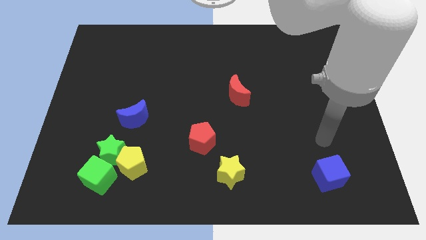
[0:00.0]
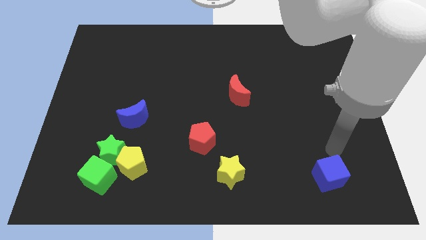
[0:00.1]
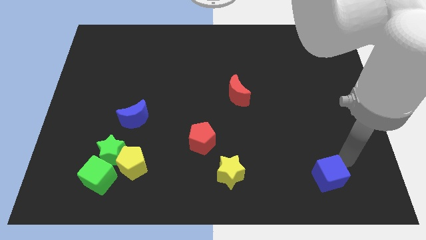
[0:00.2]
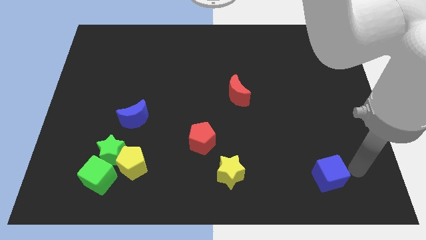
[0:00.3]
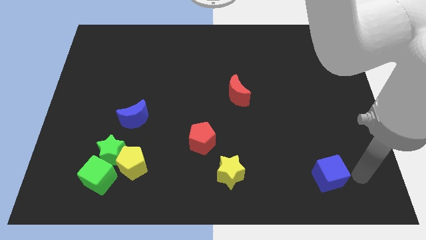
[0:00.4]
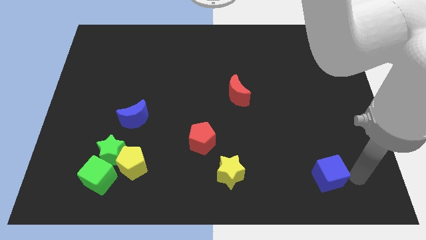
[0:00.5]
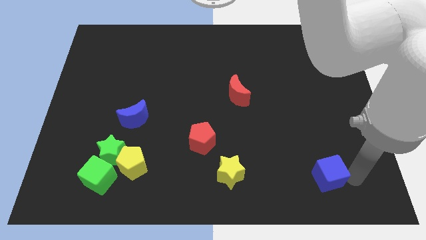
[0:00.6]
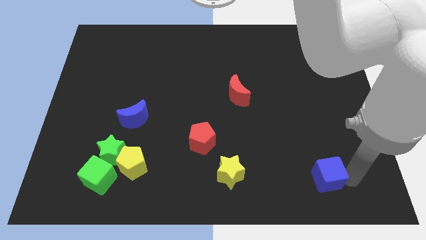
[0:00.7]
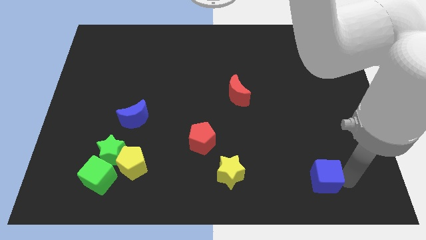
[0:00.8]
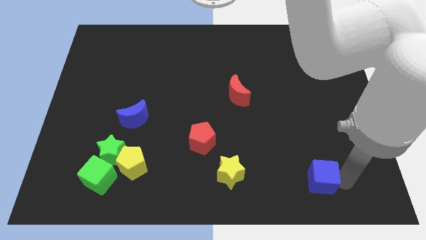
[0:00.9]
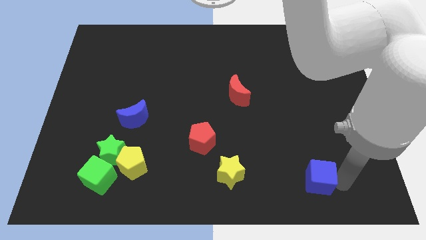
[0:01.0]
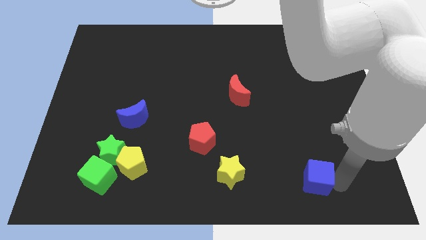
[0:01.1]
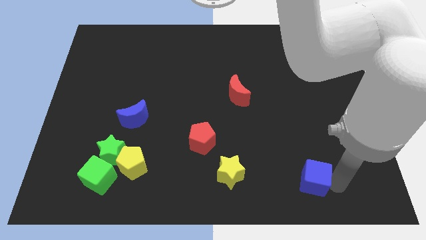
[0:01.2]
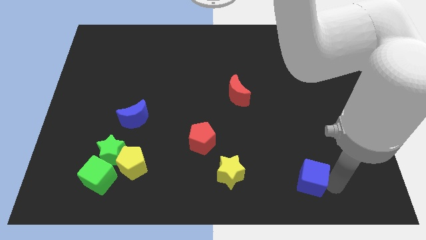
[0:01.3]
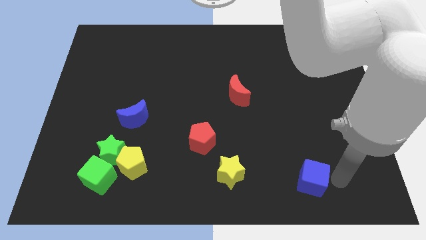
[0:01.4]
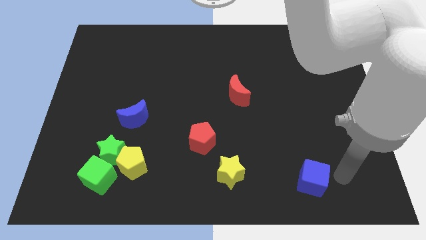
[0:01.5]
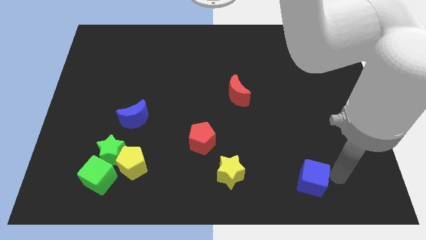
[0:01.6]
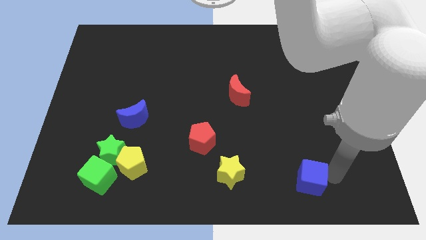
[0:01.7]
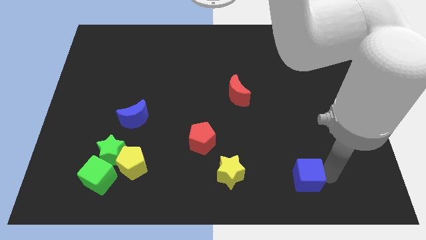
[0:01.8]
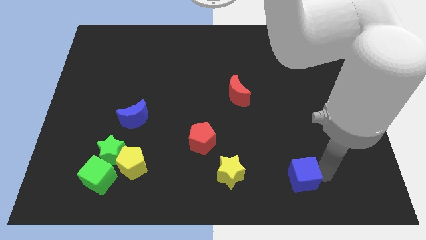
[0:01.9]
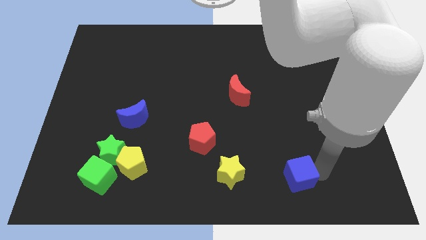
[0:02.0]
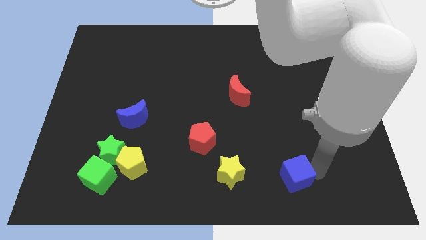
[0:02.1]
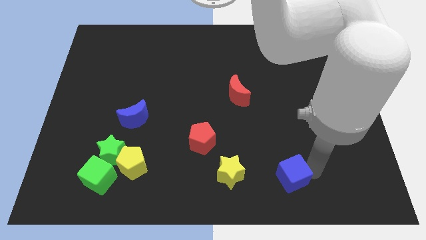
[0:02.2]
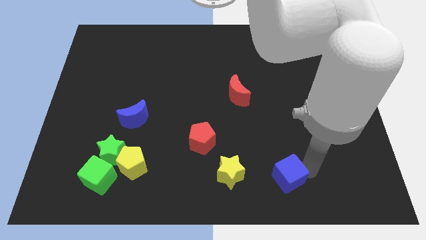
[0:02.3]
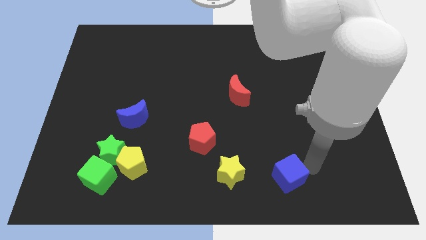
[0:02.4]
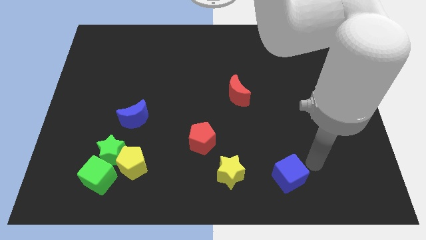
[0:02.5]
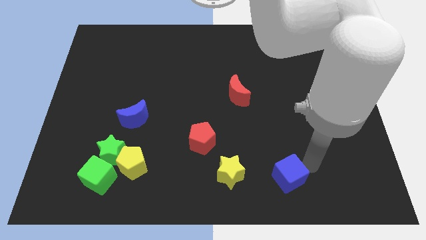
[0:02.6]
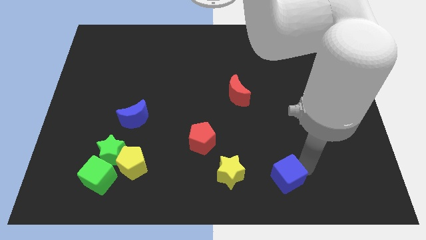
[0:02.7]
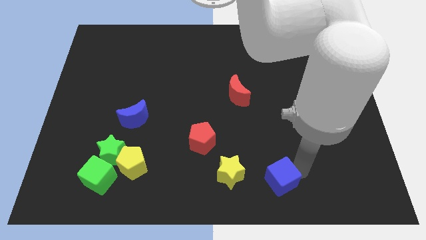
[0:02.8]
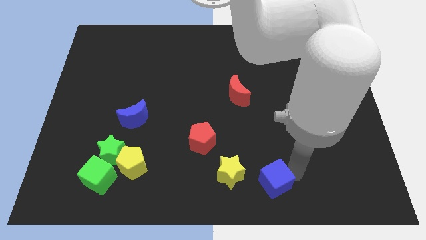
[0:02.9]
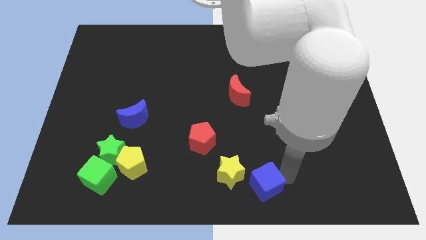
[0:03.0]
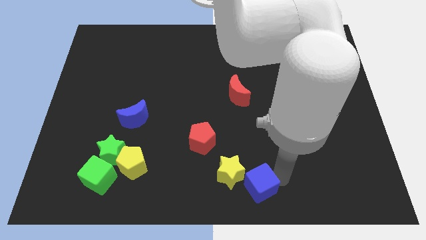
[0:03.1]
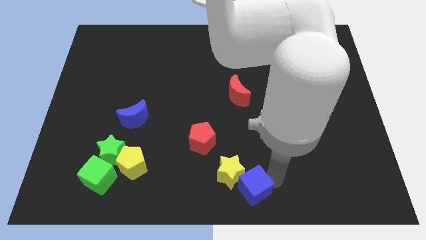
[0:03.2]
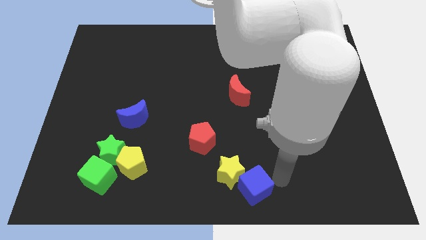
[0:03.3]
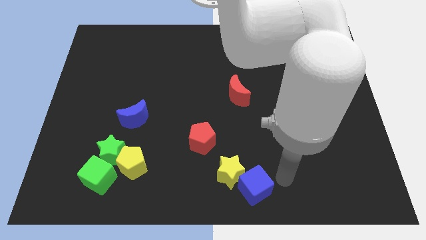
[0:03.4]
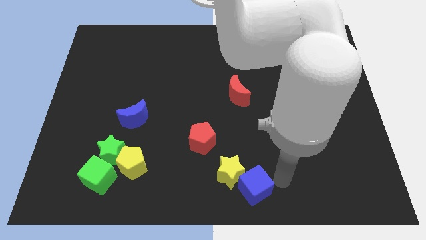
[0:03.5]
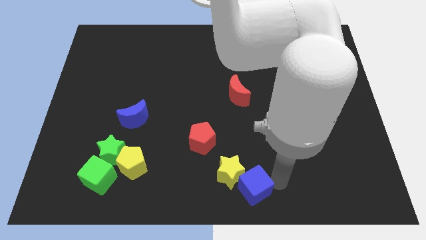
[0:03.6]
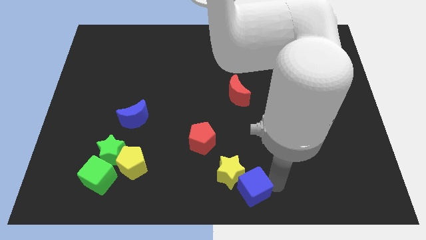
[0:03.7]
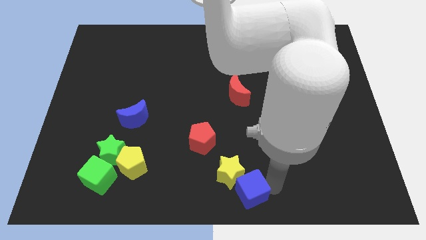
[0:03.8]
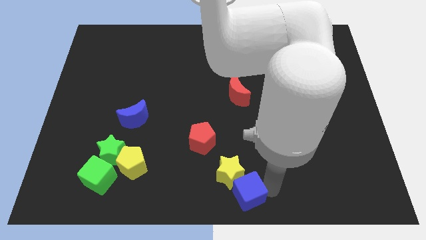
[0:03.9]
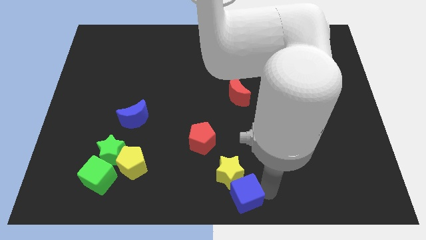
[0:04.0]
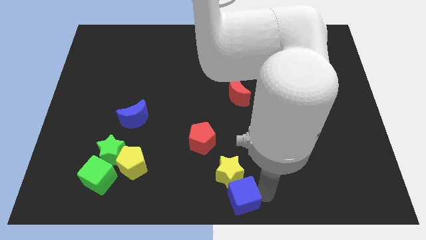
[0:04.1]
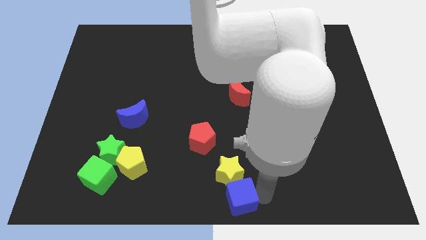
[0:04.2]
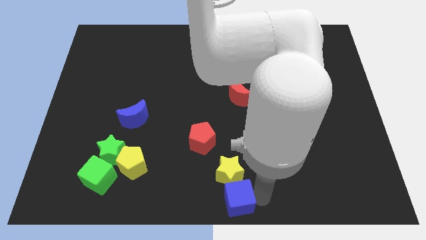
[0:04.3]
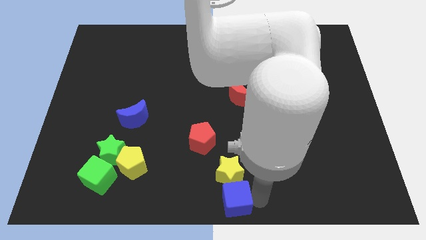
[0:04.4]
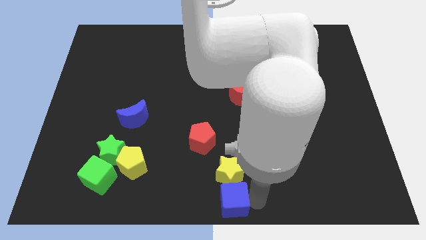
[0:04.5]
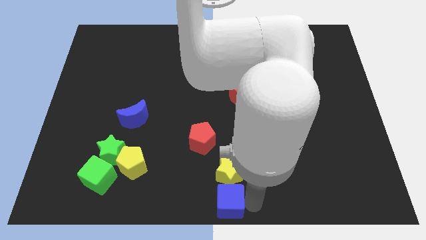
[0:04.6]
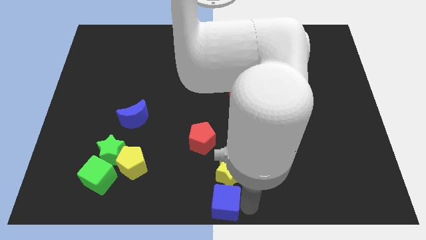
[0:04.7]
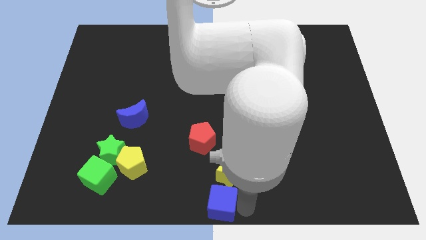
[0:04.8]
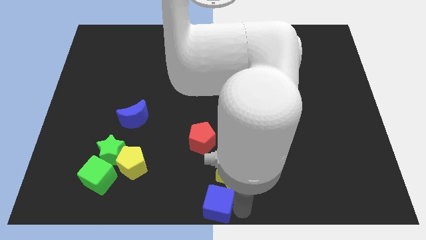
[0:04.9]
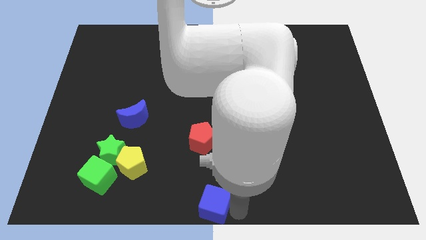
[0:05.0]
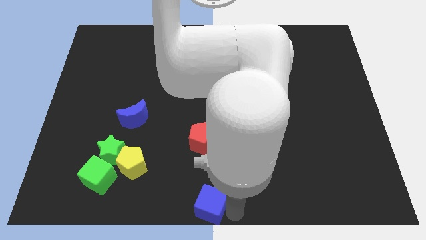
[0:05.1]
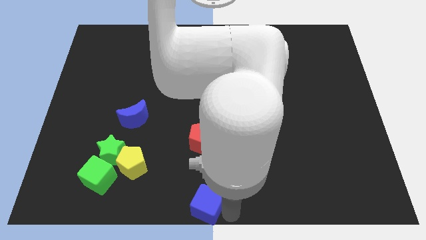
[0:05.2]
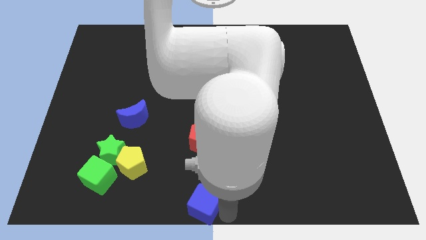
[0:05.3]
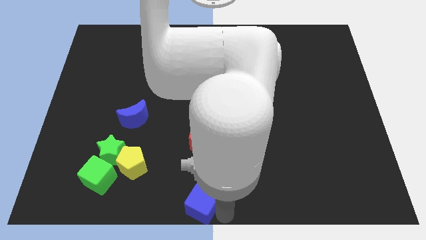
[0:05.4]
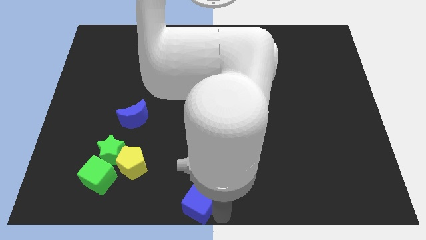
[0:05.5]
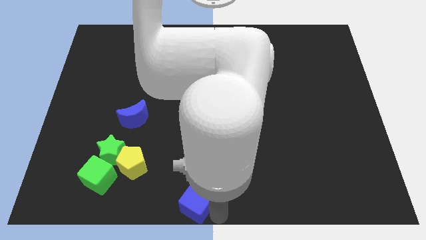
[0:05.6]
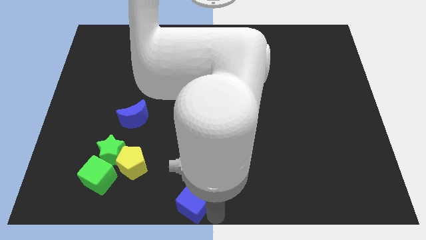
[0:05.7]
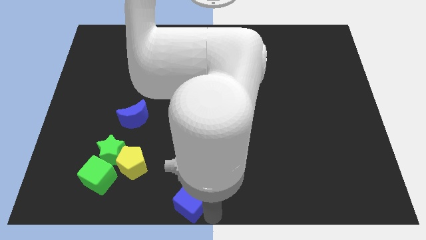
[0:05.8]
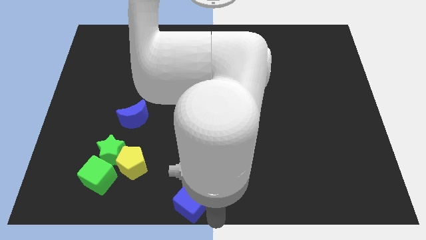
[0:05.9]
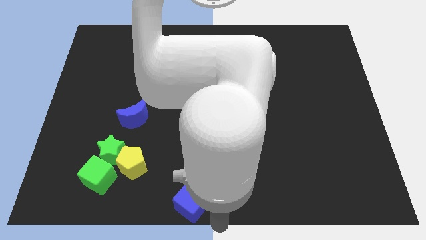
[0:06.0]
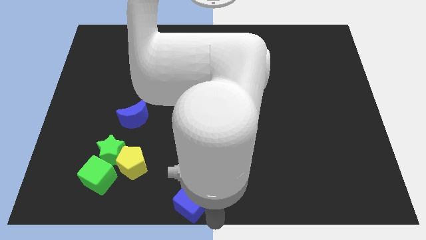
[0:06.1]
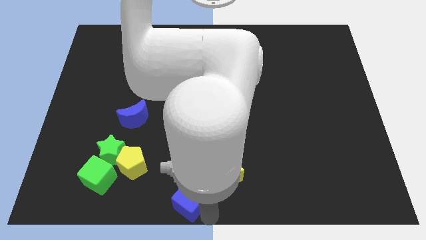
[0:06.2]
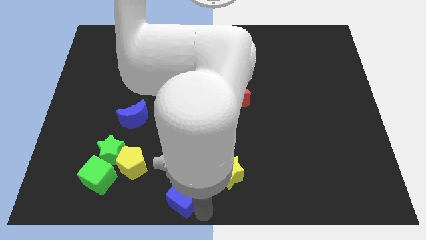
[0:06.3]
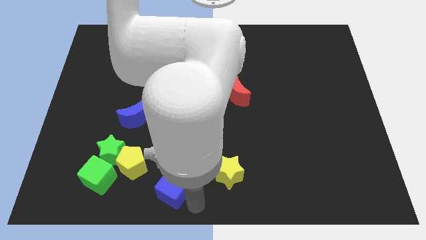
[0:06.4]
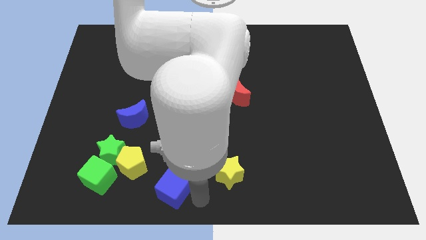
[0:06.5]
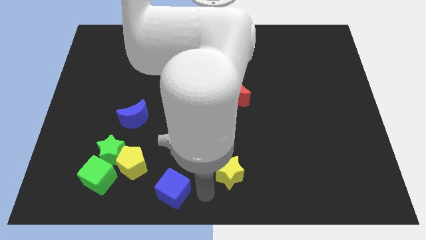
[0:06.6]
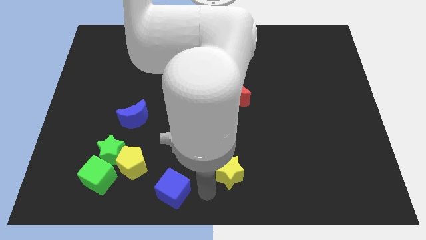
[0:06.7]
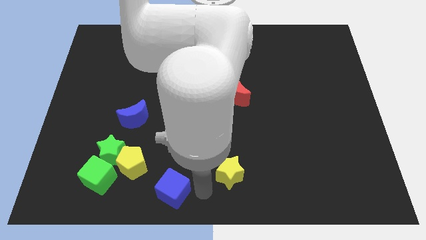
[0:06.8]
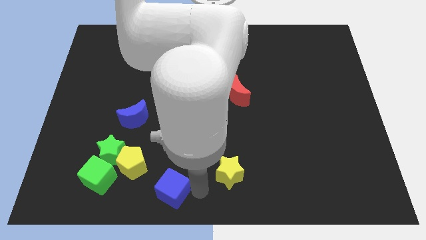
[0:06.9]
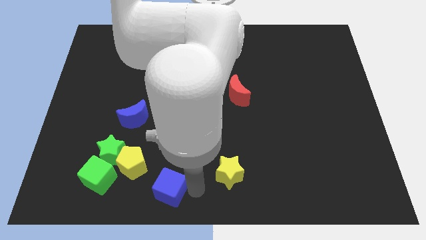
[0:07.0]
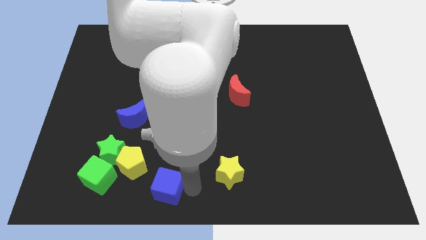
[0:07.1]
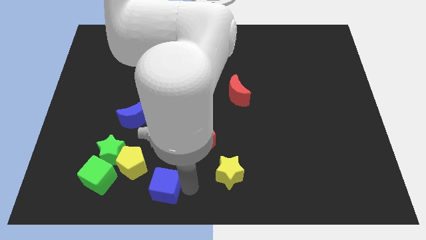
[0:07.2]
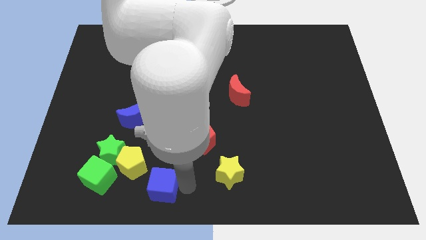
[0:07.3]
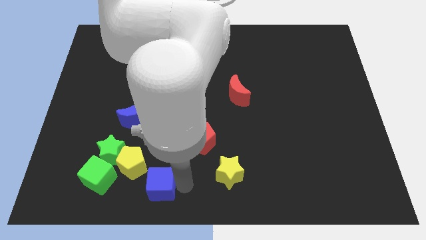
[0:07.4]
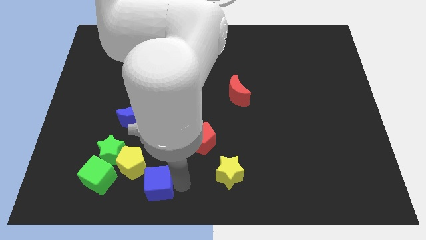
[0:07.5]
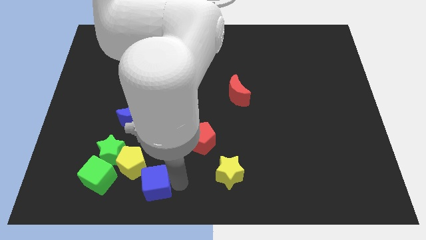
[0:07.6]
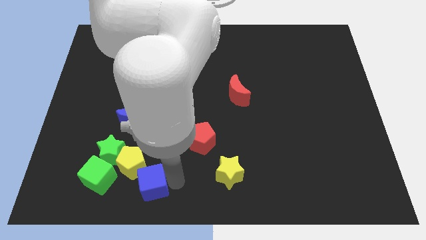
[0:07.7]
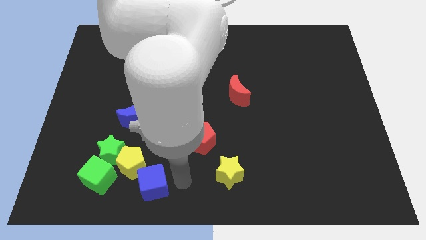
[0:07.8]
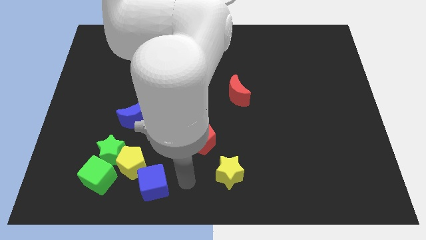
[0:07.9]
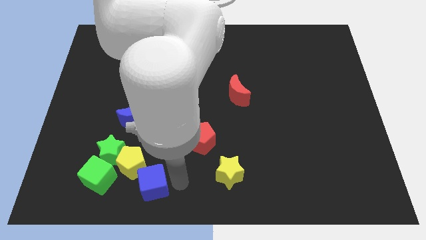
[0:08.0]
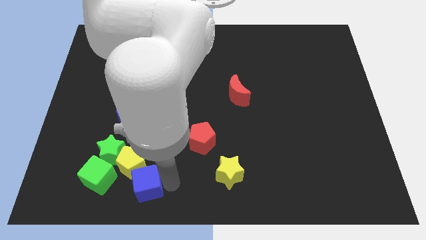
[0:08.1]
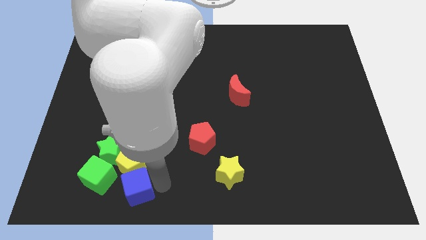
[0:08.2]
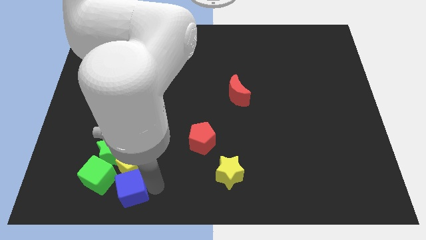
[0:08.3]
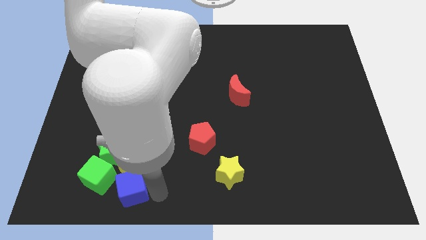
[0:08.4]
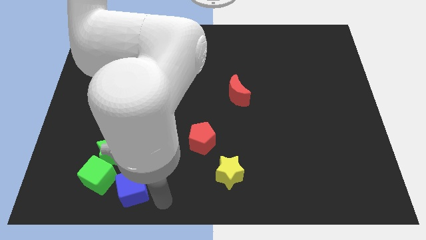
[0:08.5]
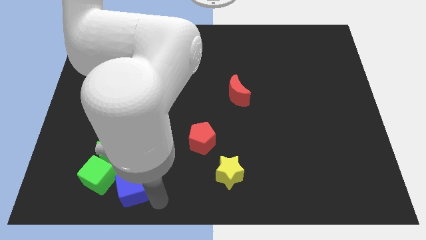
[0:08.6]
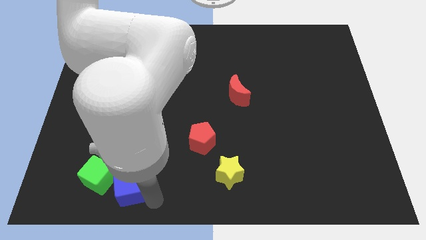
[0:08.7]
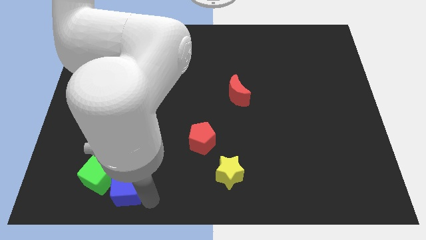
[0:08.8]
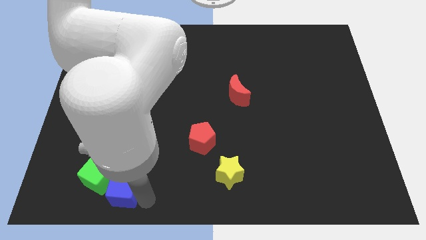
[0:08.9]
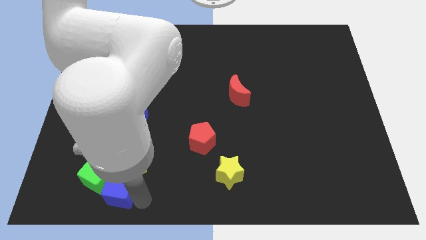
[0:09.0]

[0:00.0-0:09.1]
push the blue cube towards the green cube
